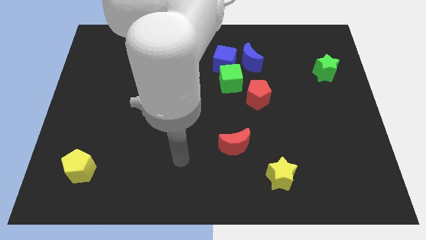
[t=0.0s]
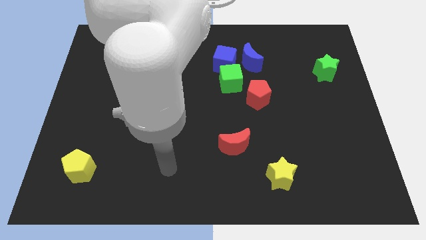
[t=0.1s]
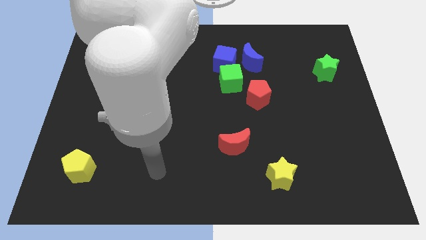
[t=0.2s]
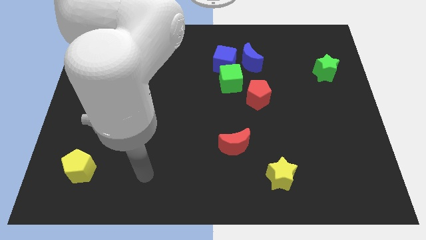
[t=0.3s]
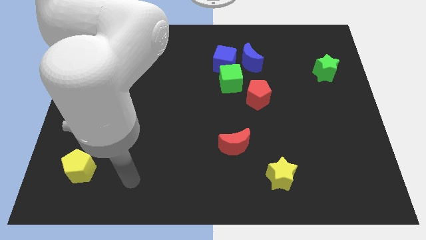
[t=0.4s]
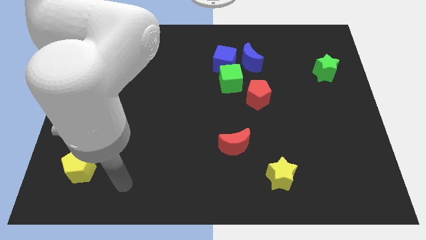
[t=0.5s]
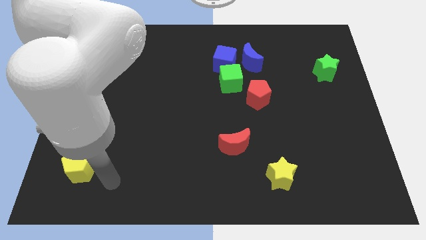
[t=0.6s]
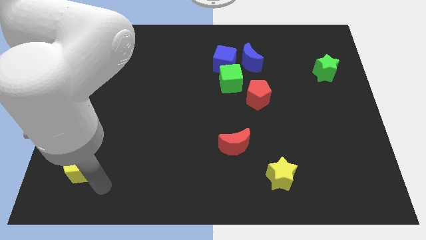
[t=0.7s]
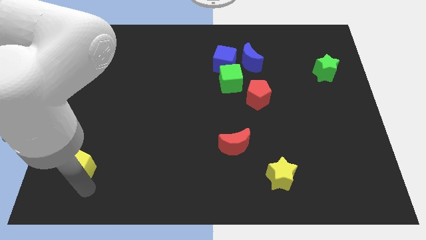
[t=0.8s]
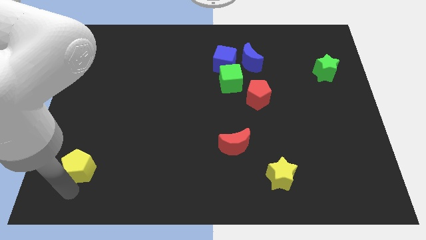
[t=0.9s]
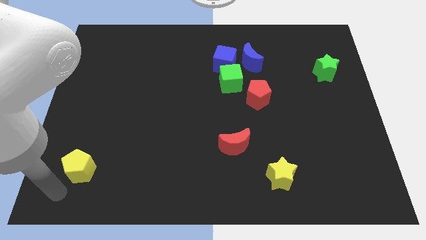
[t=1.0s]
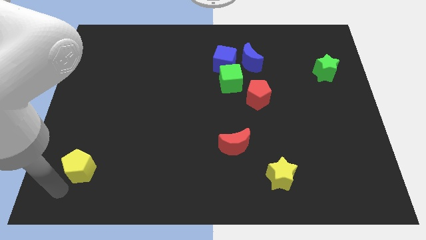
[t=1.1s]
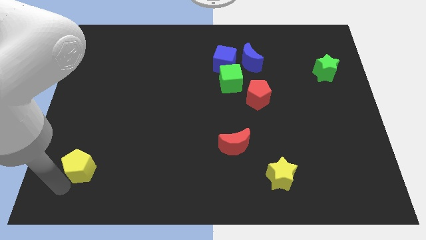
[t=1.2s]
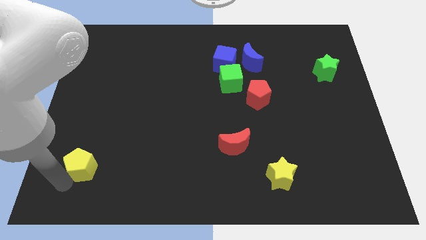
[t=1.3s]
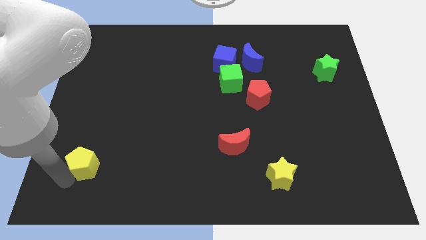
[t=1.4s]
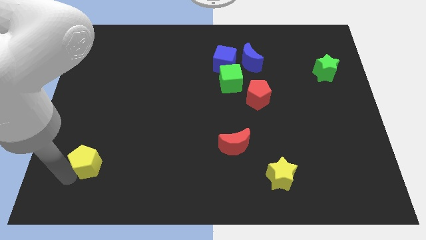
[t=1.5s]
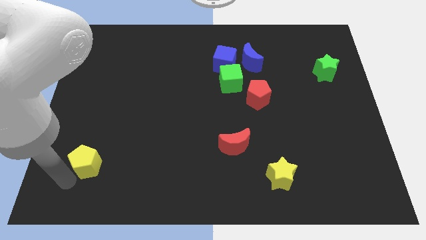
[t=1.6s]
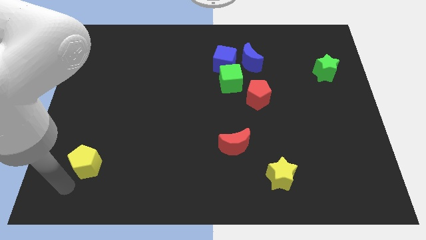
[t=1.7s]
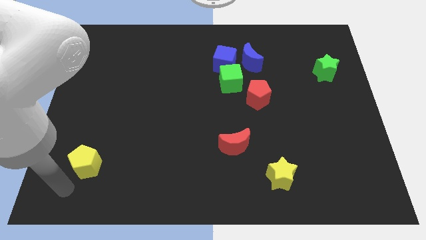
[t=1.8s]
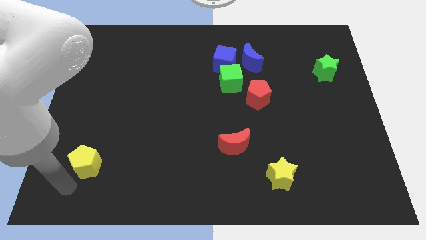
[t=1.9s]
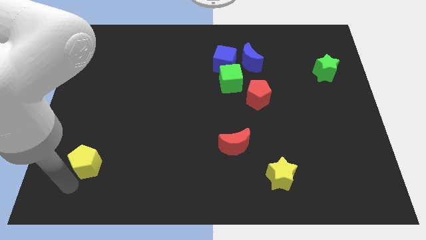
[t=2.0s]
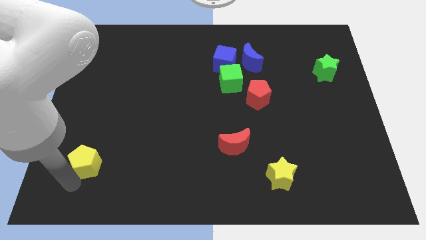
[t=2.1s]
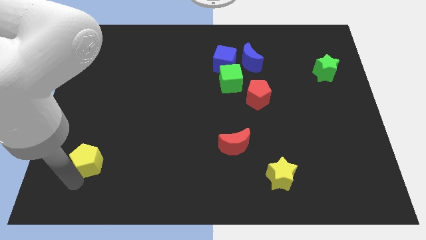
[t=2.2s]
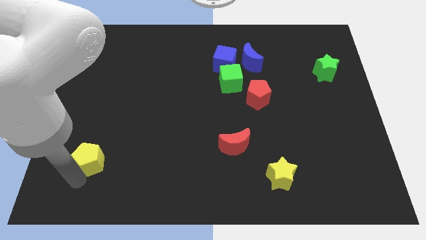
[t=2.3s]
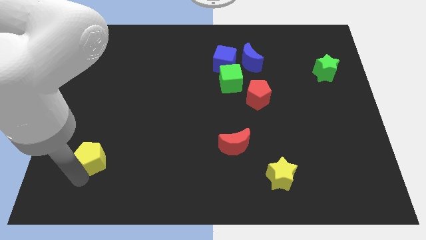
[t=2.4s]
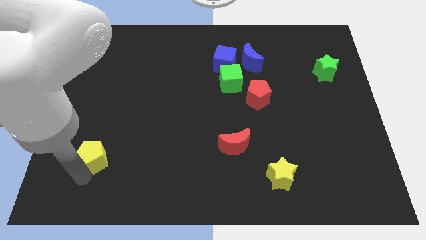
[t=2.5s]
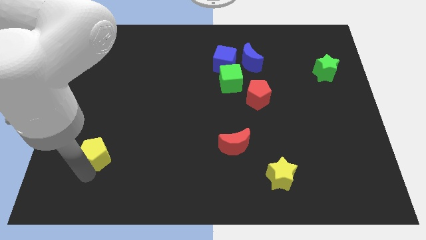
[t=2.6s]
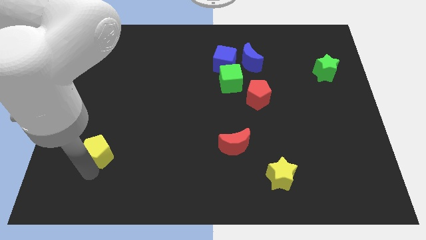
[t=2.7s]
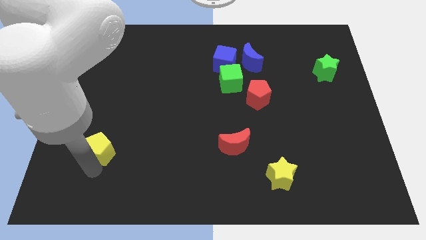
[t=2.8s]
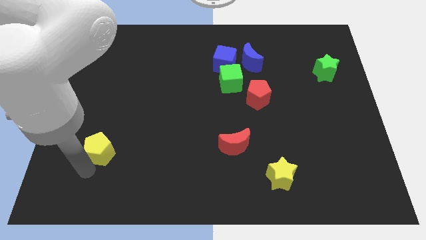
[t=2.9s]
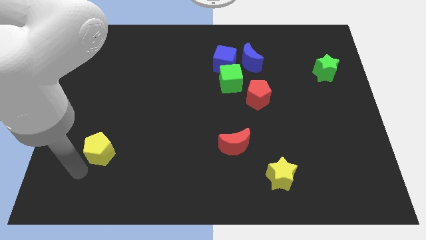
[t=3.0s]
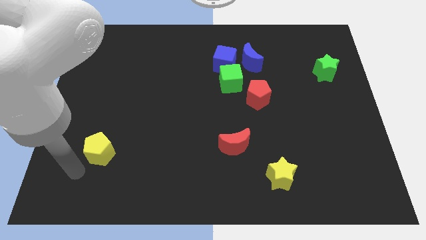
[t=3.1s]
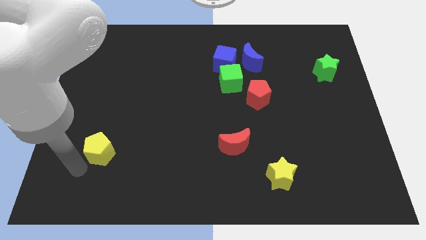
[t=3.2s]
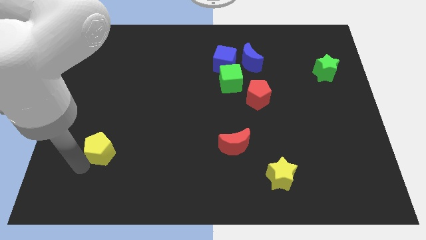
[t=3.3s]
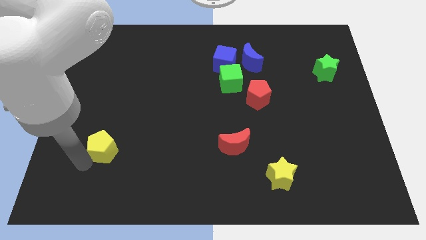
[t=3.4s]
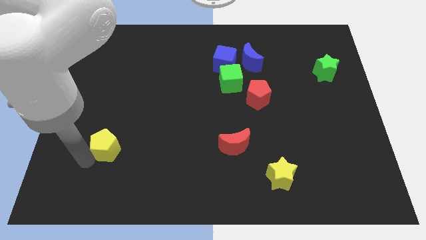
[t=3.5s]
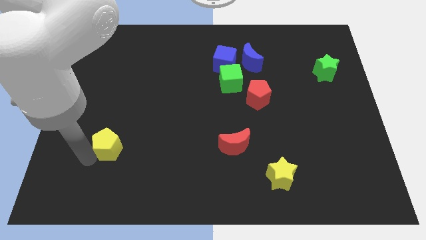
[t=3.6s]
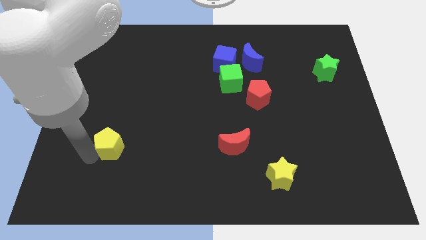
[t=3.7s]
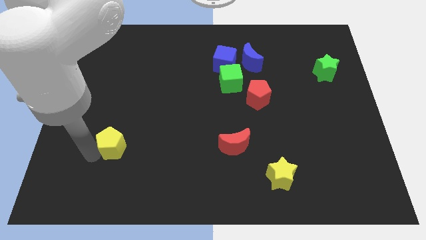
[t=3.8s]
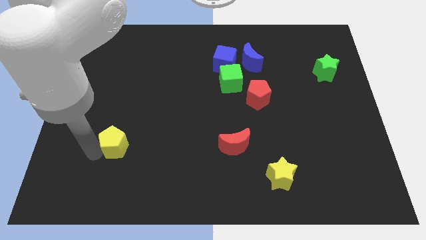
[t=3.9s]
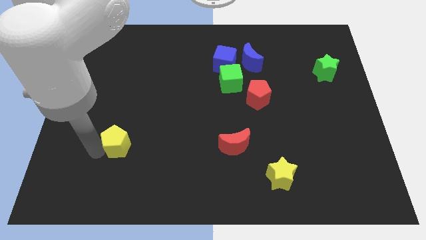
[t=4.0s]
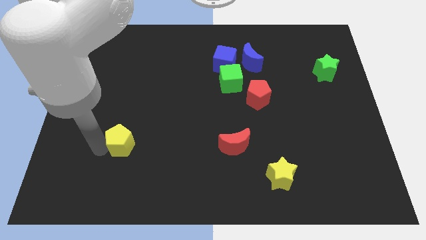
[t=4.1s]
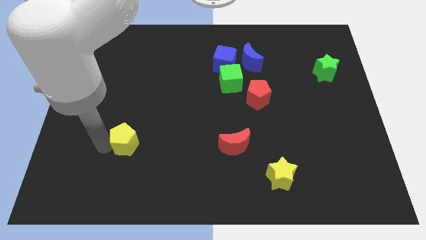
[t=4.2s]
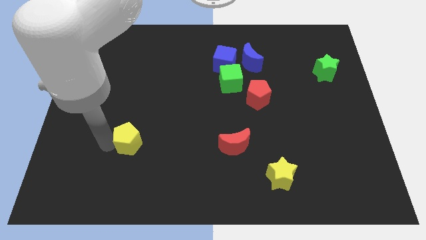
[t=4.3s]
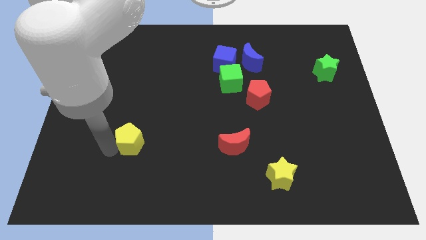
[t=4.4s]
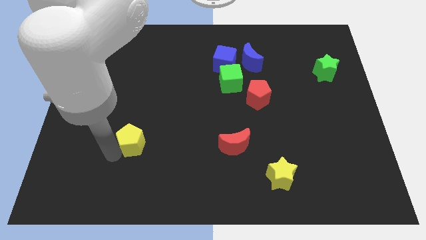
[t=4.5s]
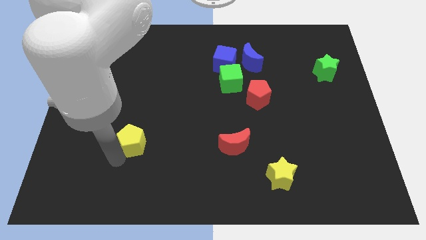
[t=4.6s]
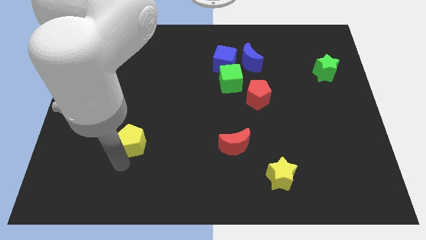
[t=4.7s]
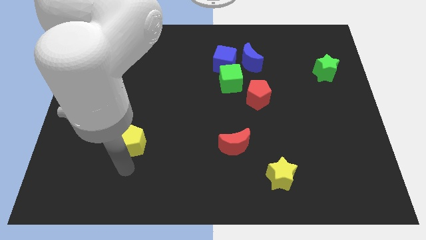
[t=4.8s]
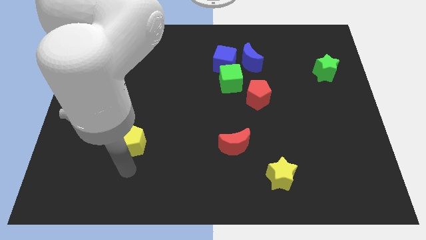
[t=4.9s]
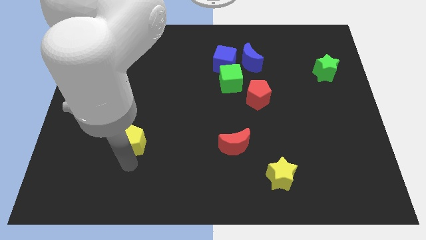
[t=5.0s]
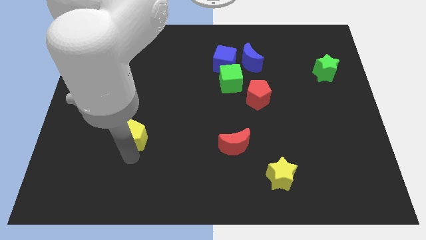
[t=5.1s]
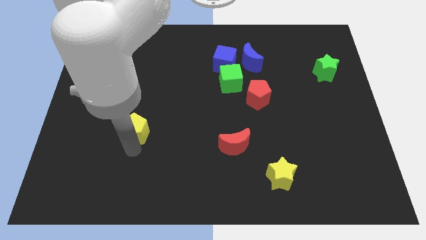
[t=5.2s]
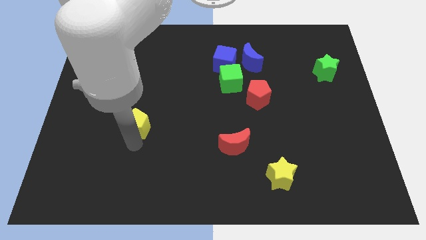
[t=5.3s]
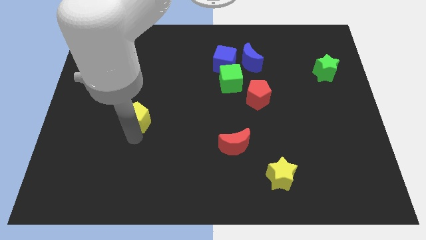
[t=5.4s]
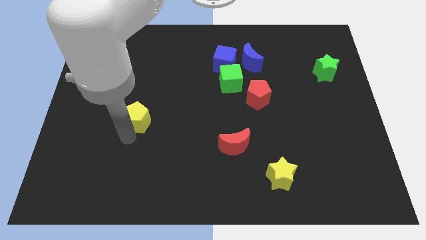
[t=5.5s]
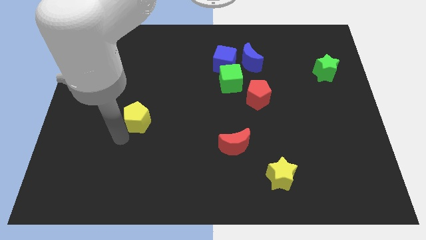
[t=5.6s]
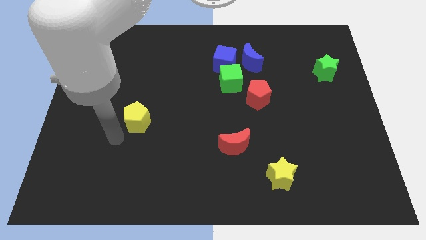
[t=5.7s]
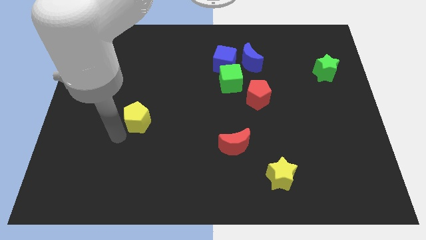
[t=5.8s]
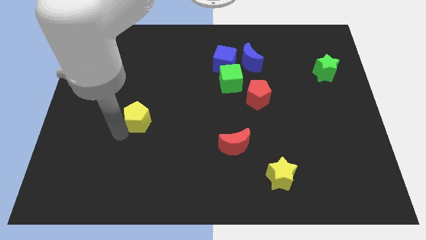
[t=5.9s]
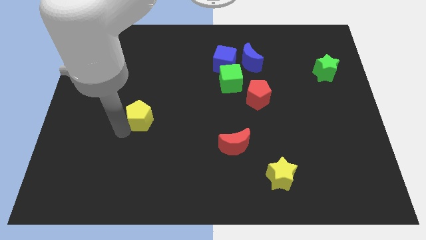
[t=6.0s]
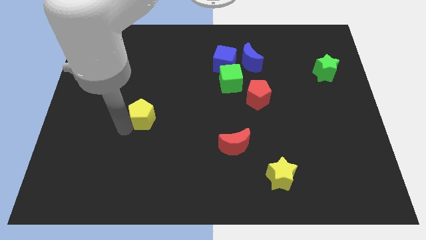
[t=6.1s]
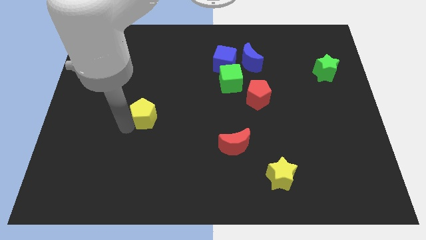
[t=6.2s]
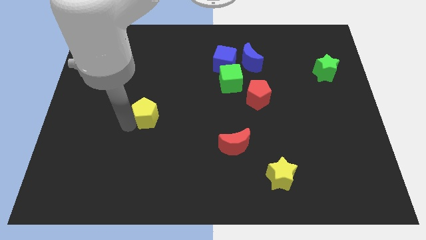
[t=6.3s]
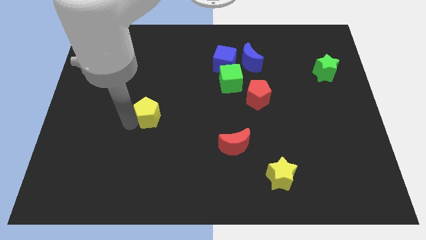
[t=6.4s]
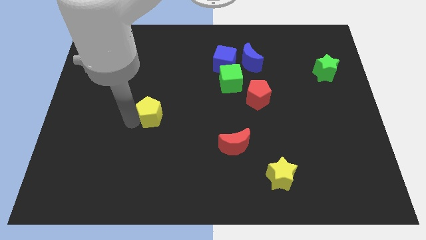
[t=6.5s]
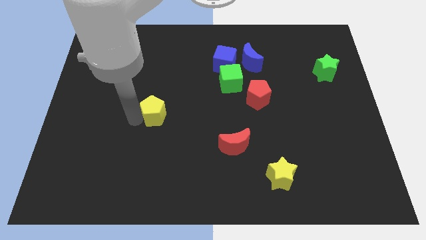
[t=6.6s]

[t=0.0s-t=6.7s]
move the yellow pentagon upwards and right diagonally

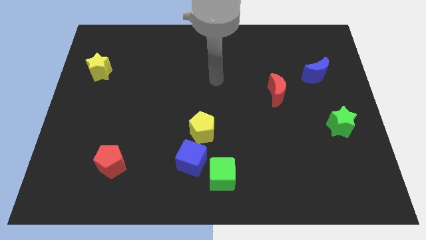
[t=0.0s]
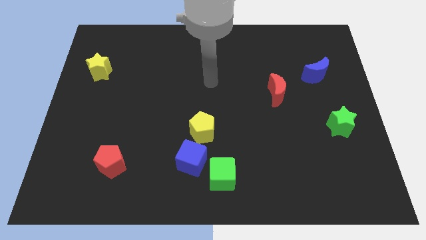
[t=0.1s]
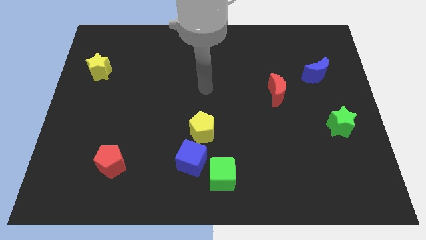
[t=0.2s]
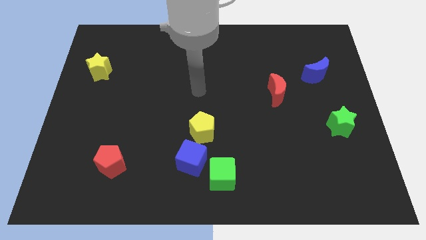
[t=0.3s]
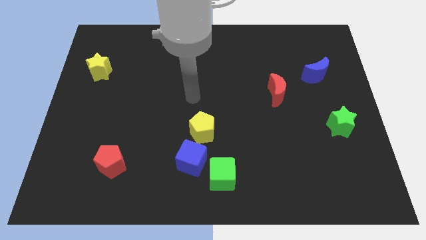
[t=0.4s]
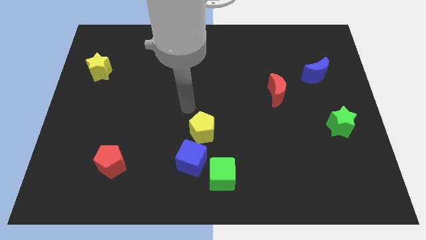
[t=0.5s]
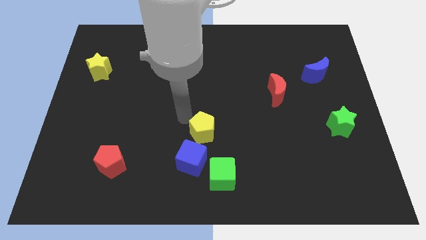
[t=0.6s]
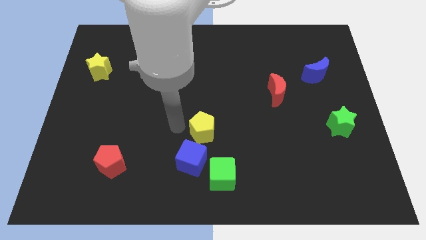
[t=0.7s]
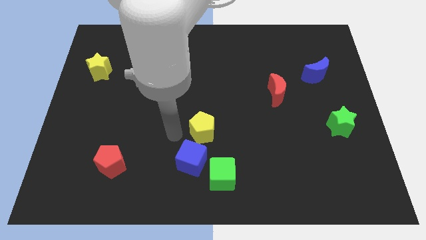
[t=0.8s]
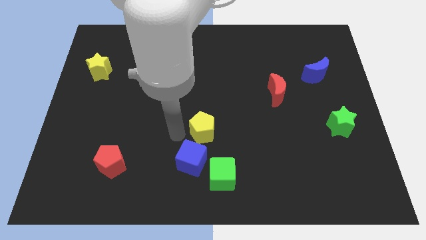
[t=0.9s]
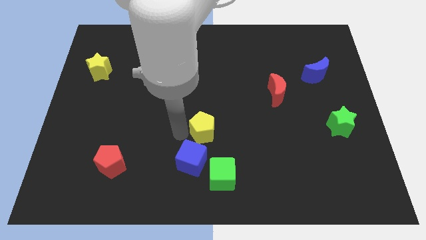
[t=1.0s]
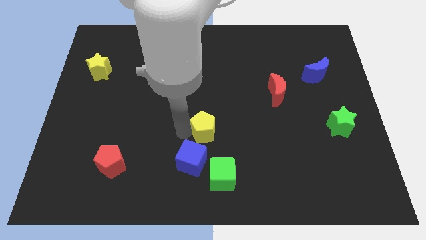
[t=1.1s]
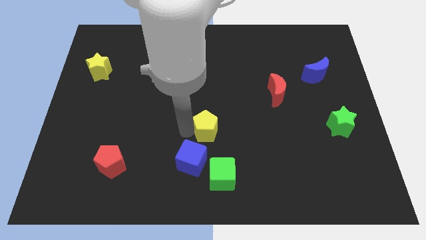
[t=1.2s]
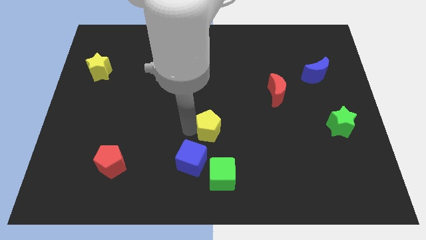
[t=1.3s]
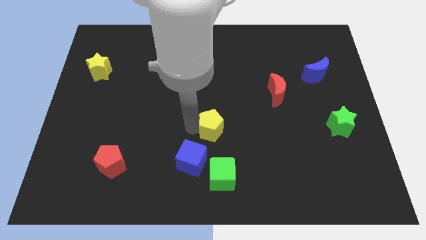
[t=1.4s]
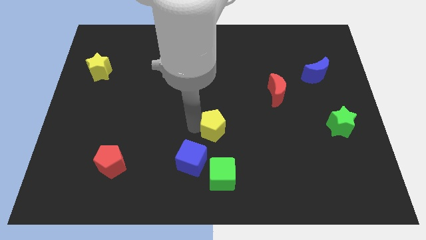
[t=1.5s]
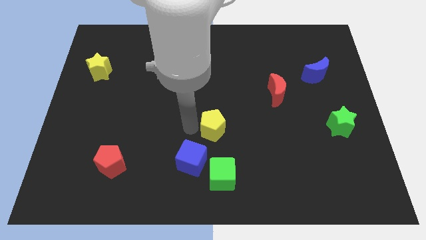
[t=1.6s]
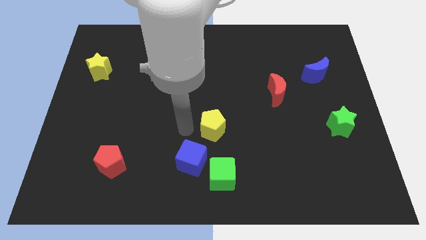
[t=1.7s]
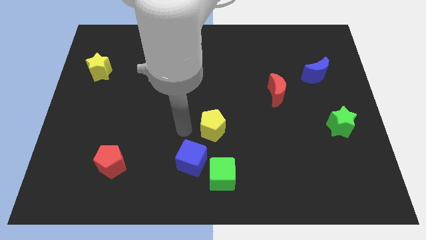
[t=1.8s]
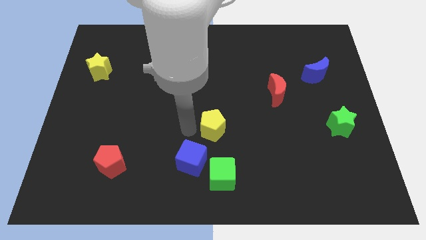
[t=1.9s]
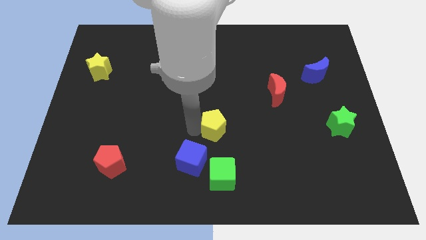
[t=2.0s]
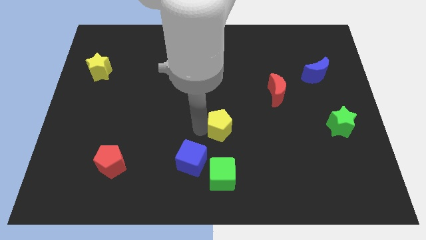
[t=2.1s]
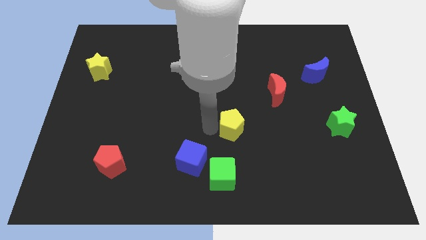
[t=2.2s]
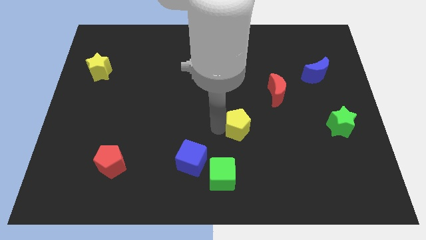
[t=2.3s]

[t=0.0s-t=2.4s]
move the yellow pentagon a little bit right
